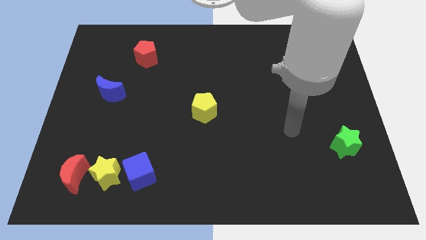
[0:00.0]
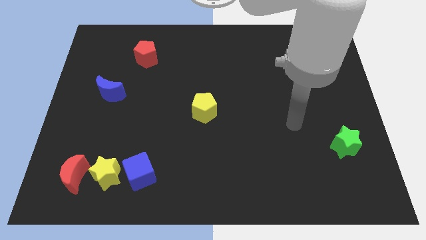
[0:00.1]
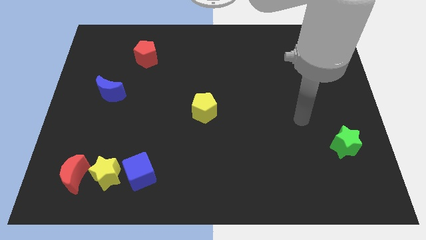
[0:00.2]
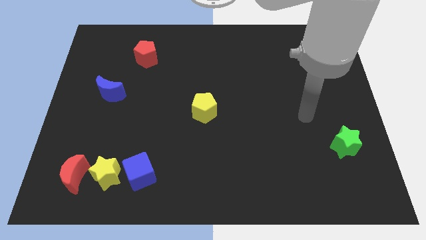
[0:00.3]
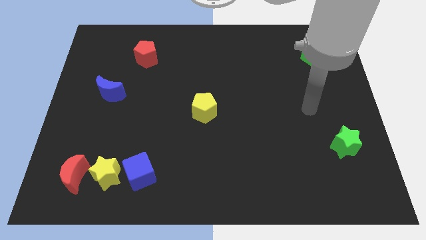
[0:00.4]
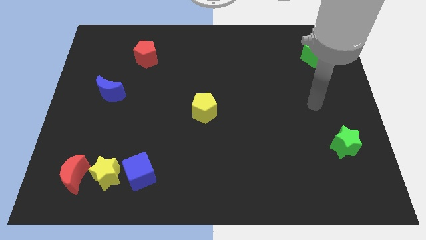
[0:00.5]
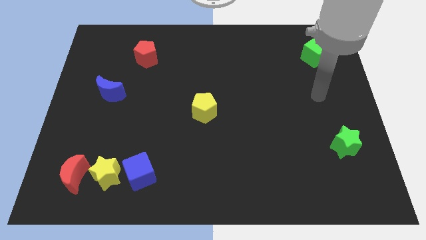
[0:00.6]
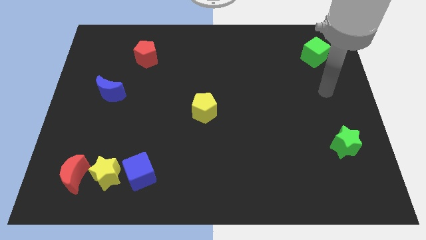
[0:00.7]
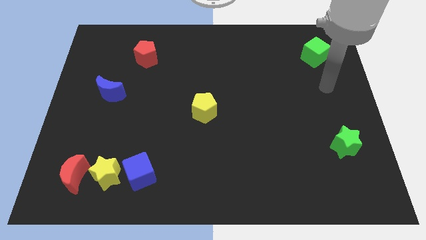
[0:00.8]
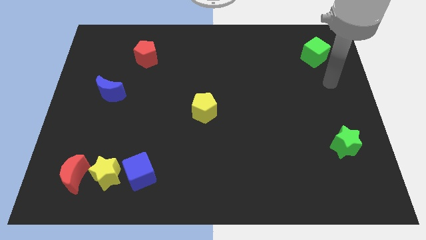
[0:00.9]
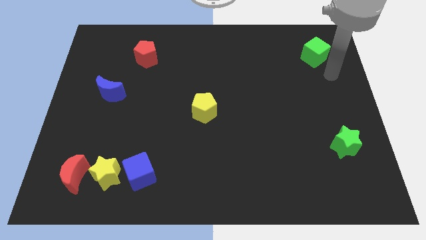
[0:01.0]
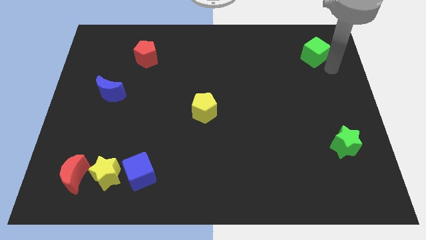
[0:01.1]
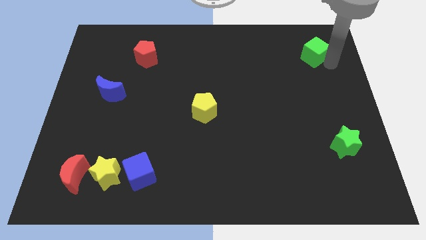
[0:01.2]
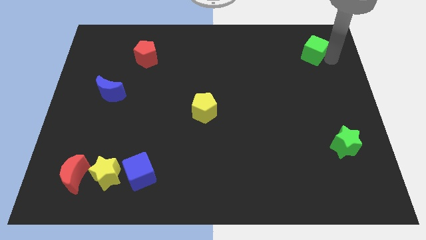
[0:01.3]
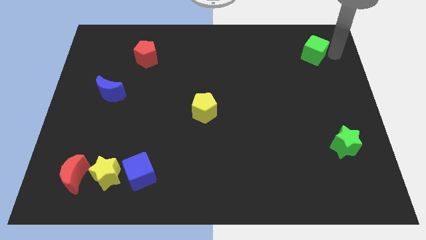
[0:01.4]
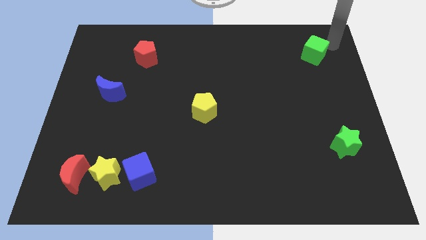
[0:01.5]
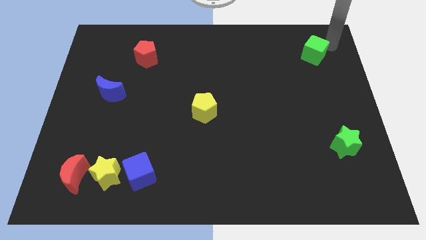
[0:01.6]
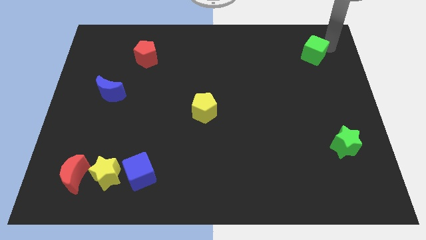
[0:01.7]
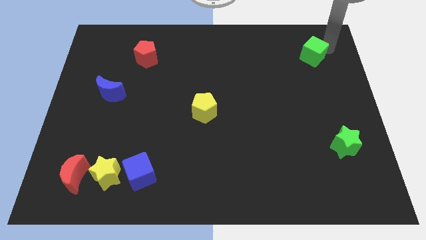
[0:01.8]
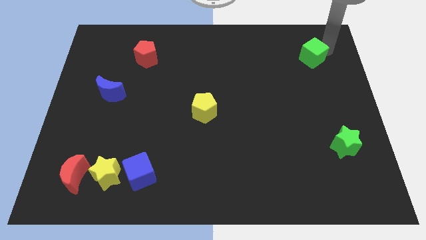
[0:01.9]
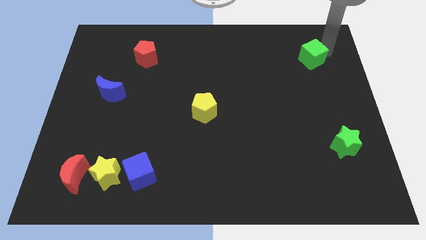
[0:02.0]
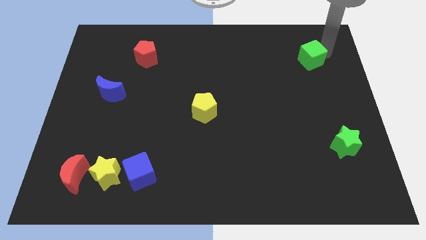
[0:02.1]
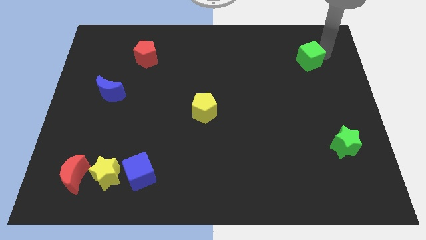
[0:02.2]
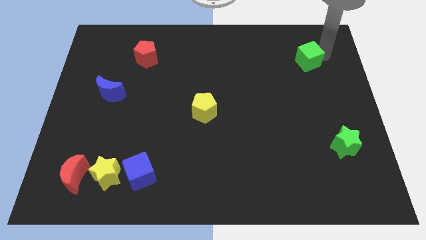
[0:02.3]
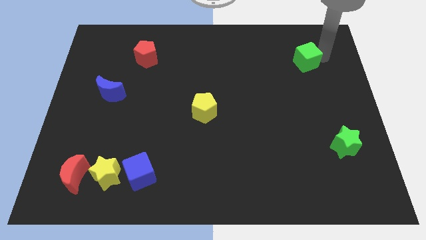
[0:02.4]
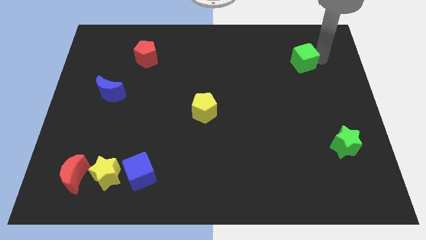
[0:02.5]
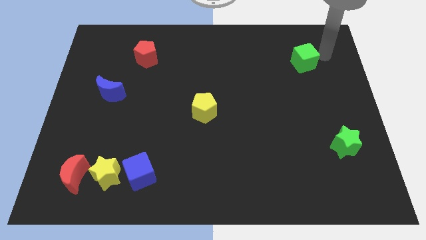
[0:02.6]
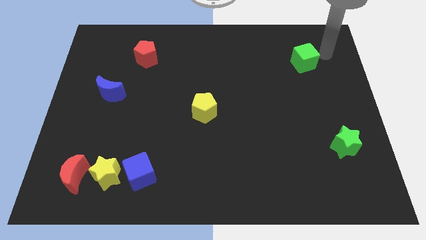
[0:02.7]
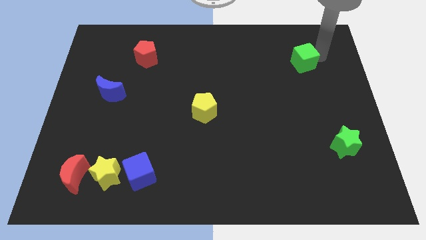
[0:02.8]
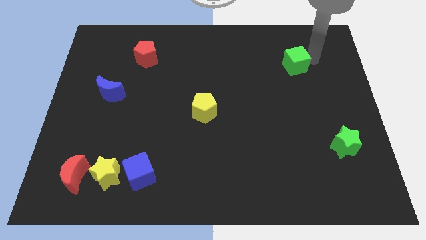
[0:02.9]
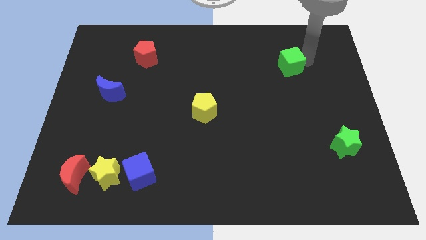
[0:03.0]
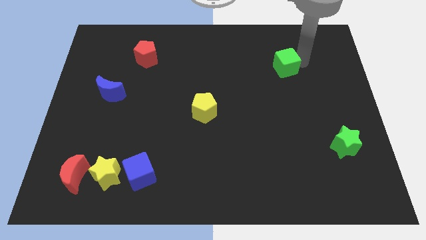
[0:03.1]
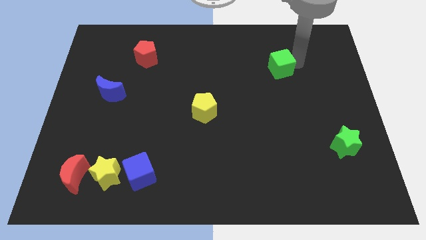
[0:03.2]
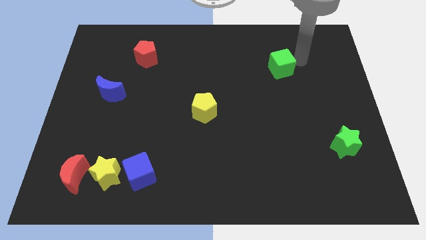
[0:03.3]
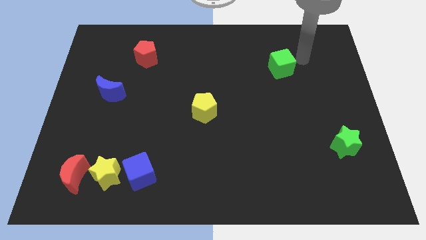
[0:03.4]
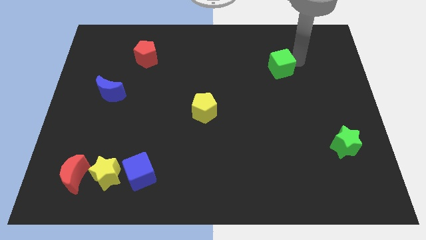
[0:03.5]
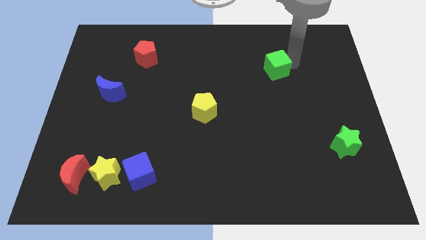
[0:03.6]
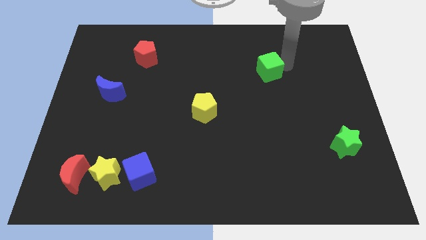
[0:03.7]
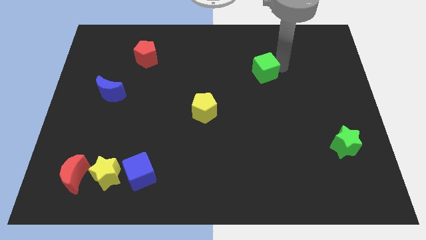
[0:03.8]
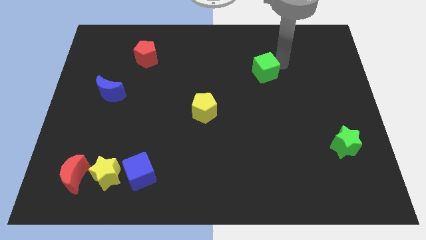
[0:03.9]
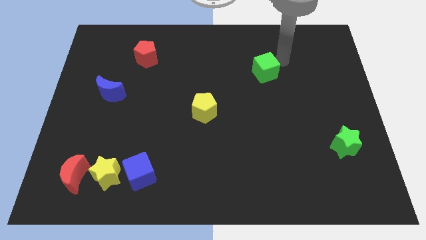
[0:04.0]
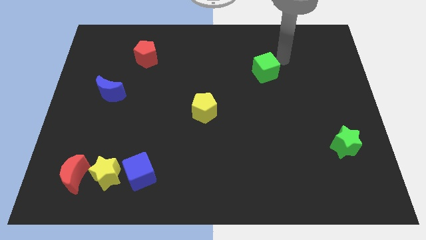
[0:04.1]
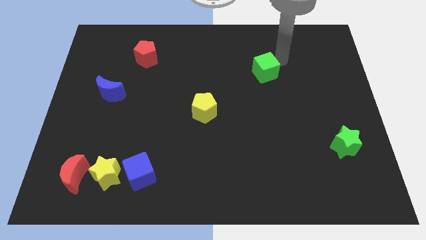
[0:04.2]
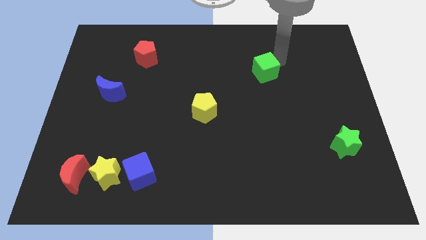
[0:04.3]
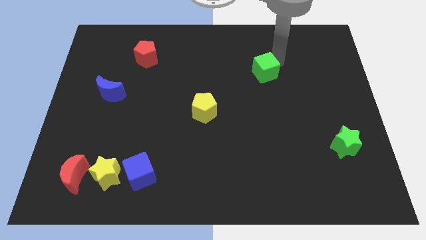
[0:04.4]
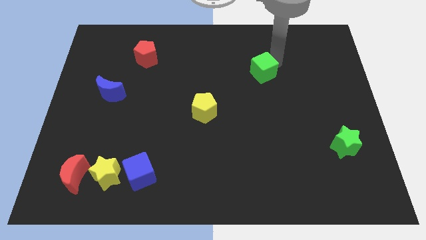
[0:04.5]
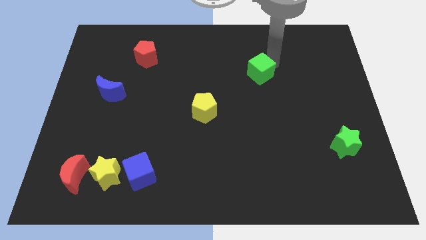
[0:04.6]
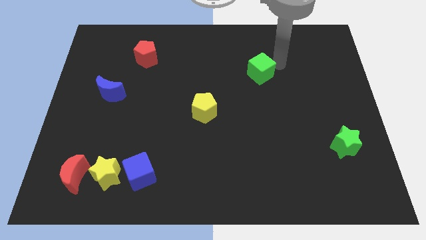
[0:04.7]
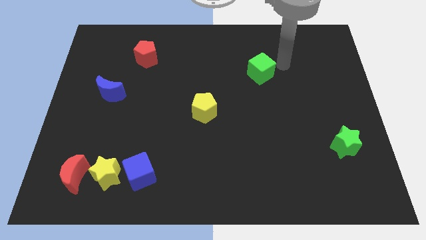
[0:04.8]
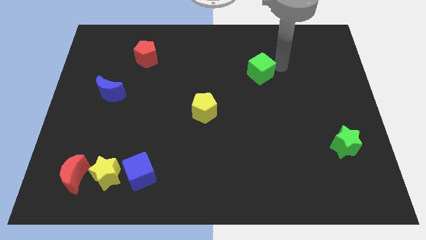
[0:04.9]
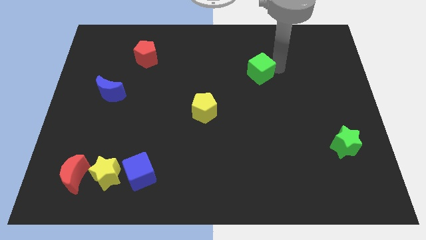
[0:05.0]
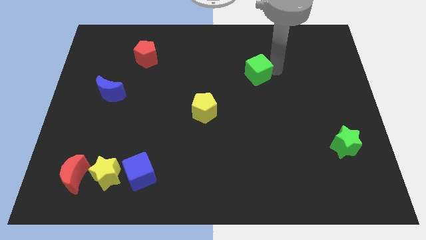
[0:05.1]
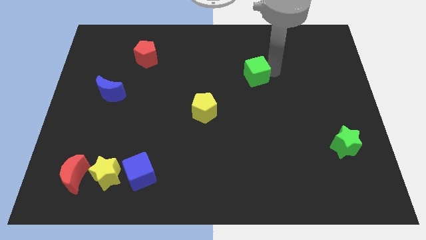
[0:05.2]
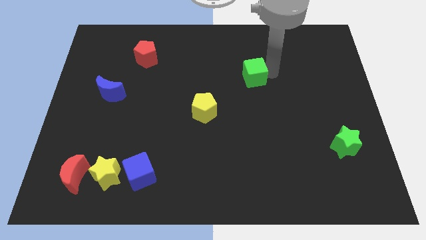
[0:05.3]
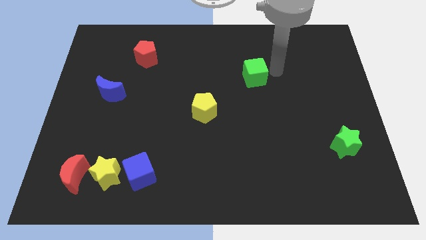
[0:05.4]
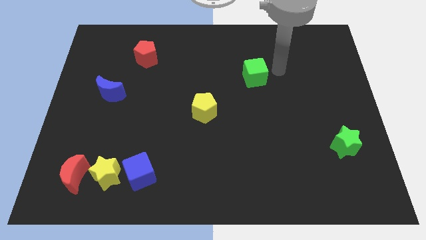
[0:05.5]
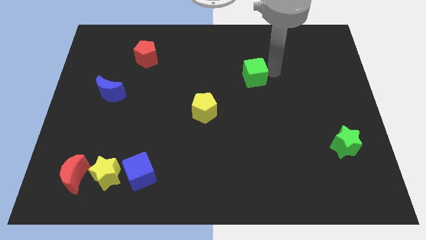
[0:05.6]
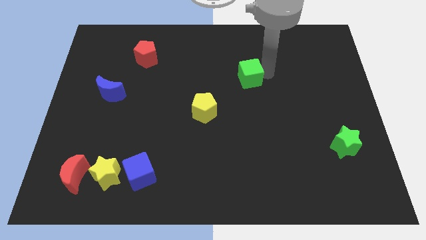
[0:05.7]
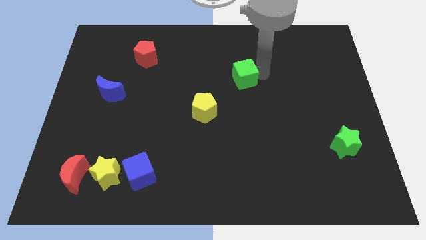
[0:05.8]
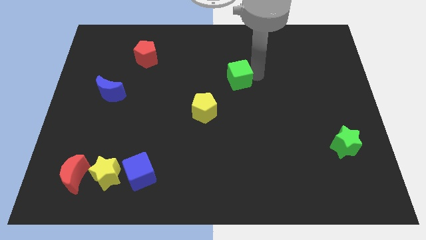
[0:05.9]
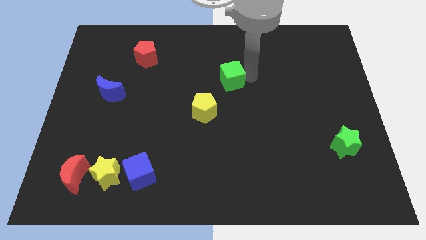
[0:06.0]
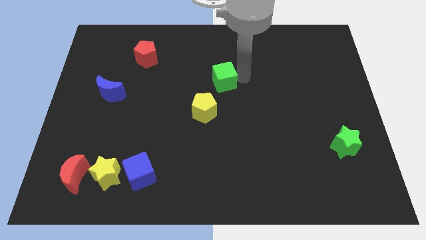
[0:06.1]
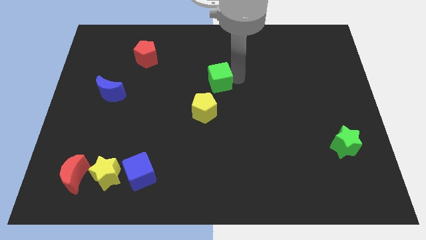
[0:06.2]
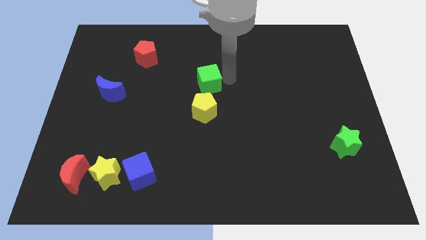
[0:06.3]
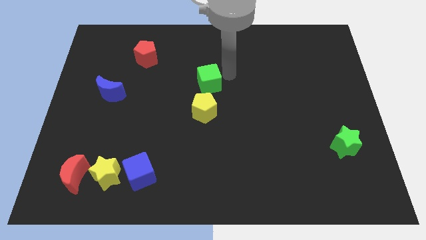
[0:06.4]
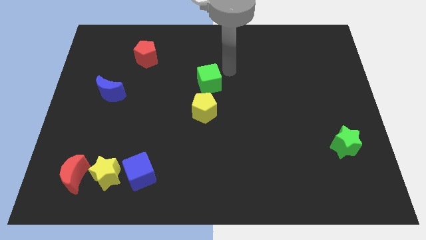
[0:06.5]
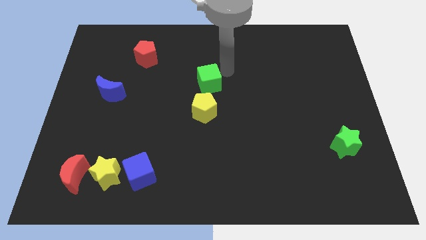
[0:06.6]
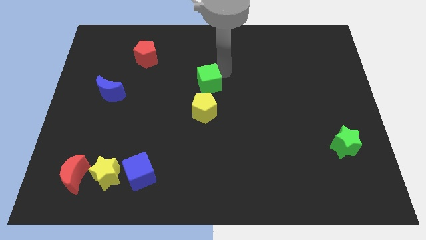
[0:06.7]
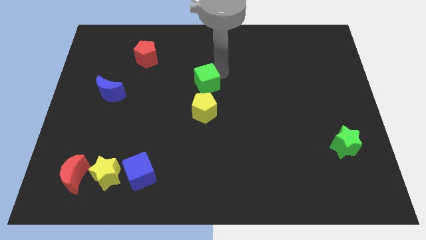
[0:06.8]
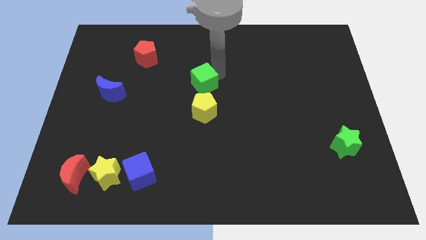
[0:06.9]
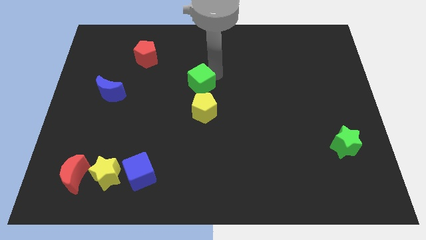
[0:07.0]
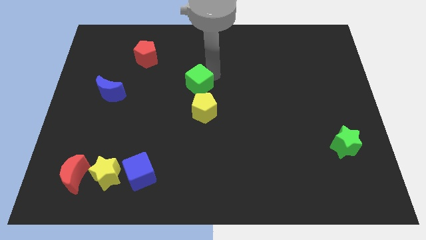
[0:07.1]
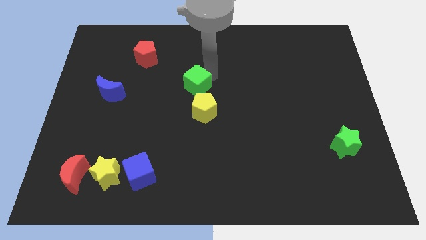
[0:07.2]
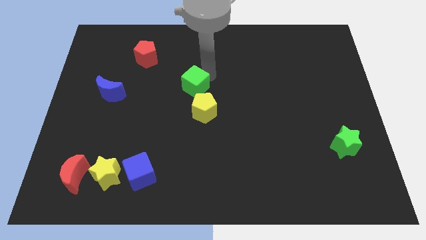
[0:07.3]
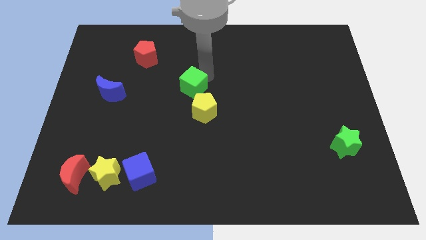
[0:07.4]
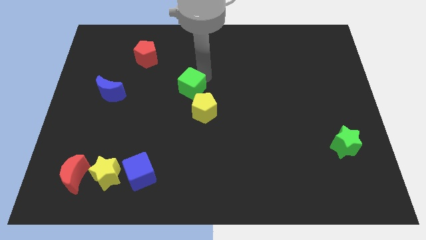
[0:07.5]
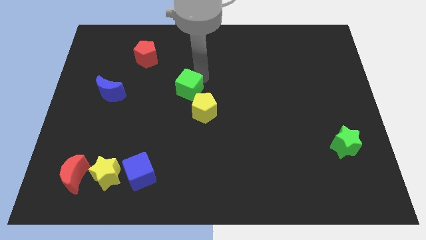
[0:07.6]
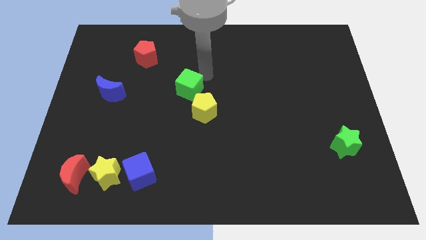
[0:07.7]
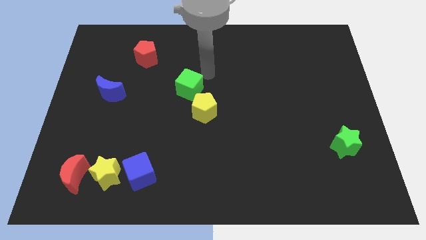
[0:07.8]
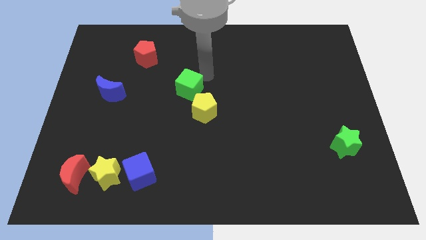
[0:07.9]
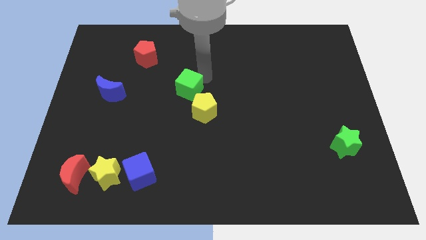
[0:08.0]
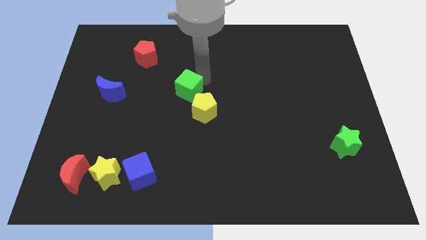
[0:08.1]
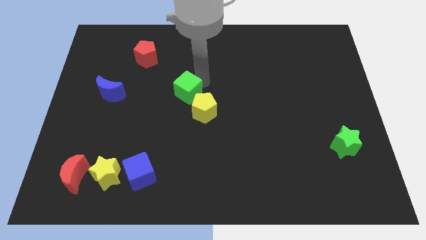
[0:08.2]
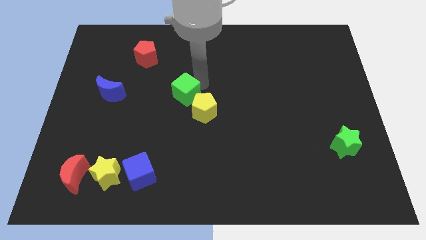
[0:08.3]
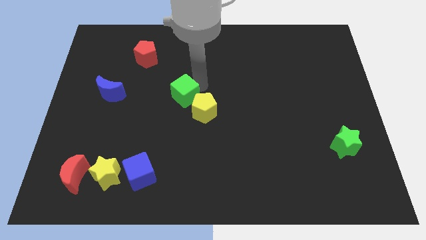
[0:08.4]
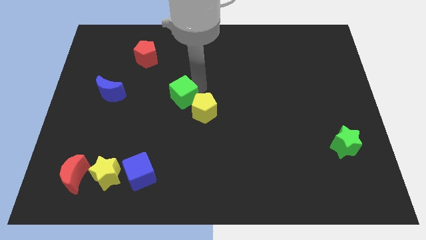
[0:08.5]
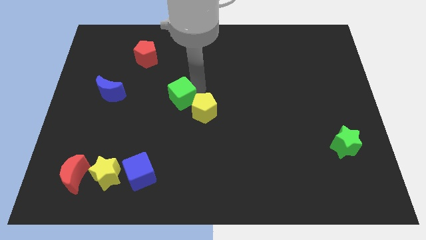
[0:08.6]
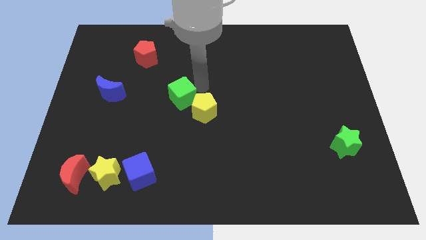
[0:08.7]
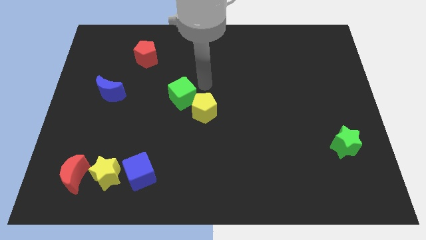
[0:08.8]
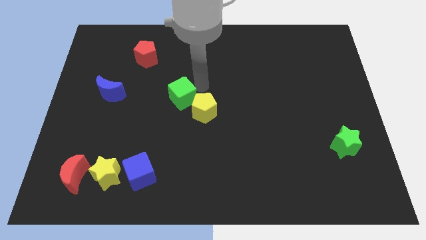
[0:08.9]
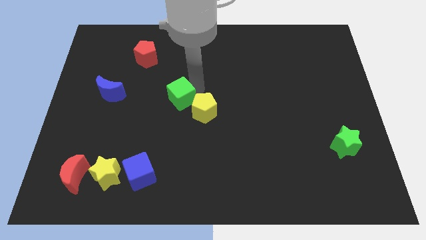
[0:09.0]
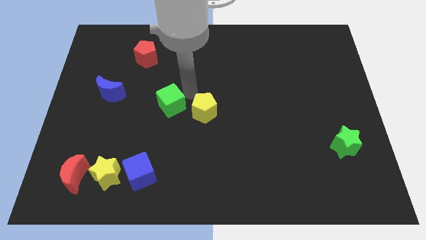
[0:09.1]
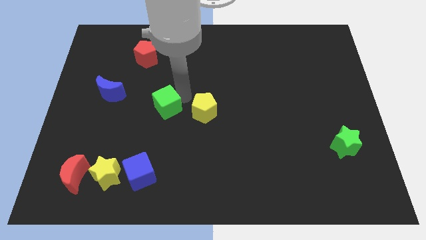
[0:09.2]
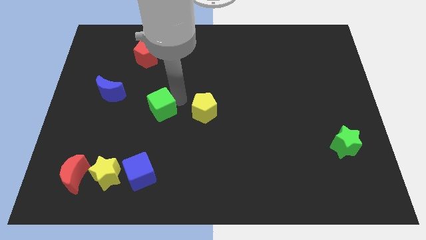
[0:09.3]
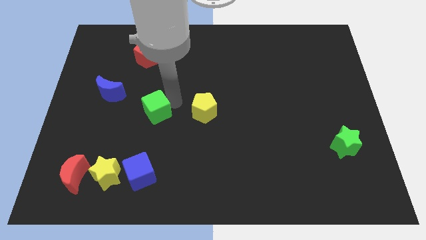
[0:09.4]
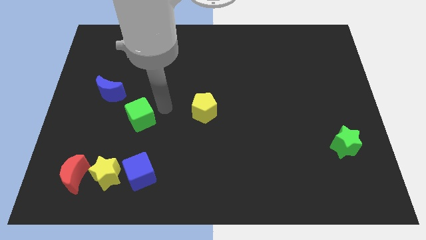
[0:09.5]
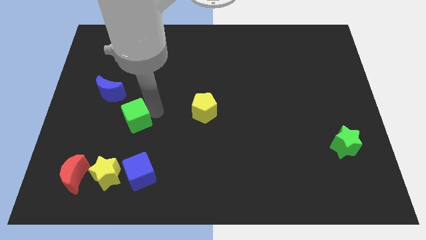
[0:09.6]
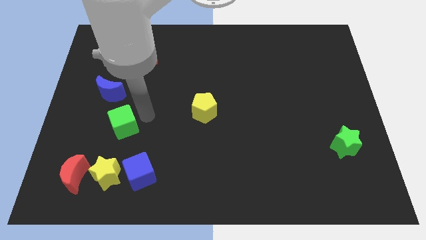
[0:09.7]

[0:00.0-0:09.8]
push the green cube below the blue moon
